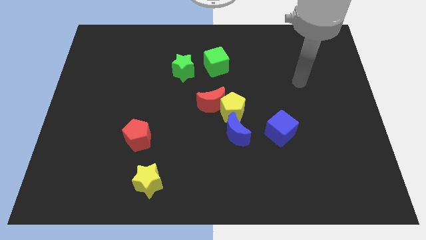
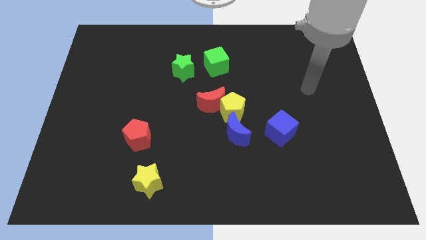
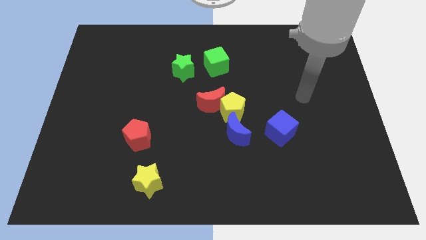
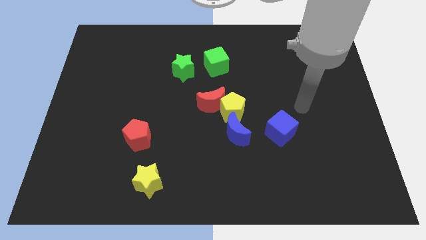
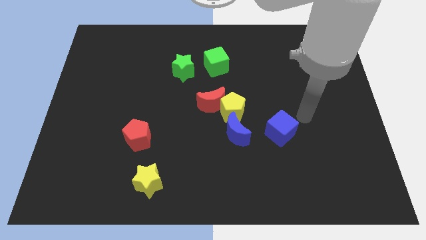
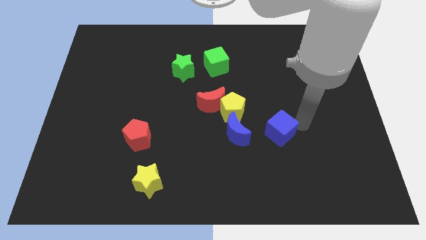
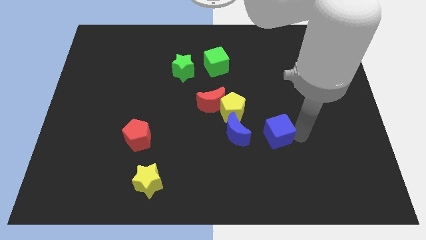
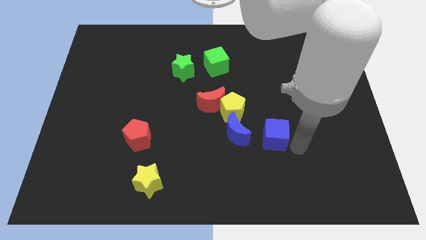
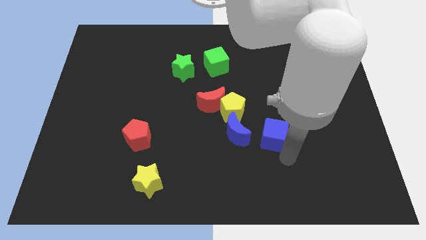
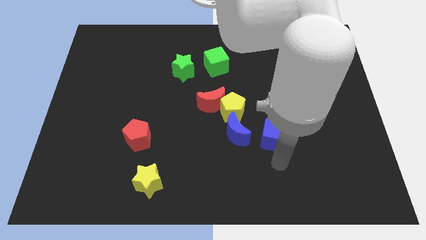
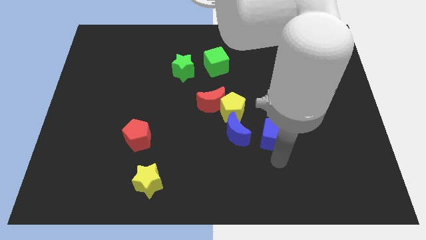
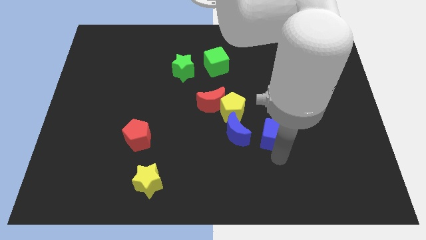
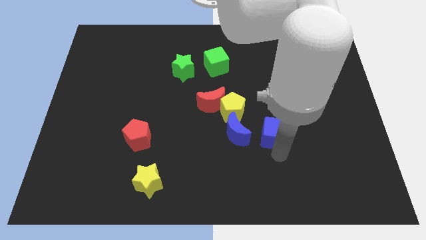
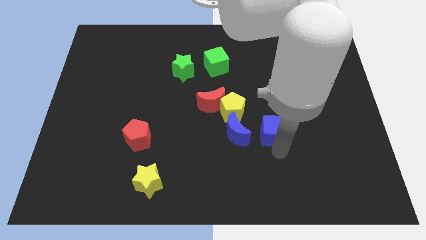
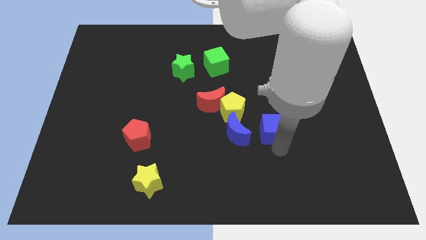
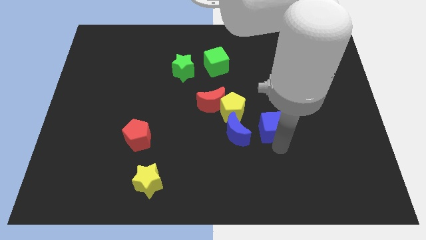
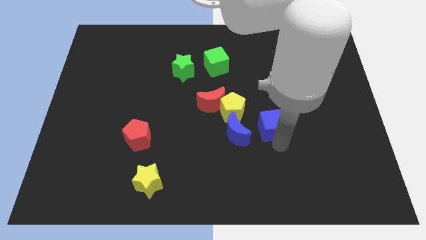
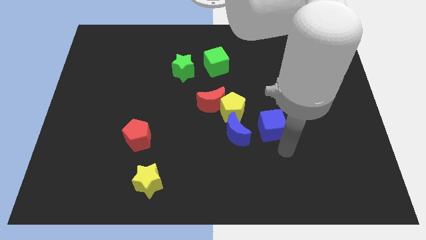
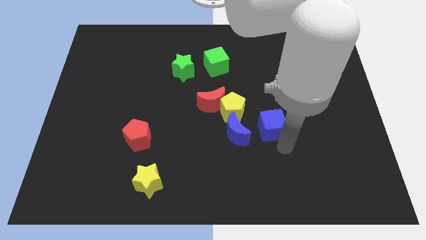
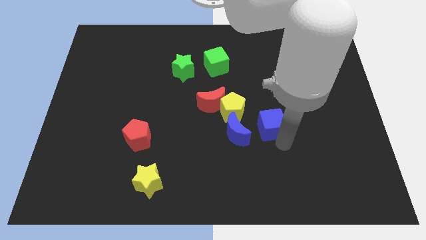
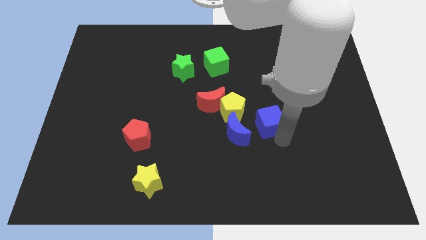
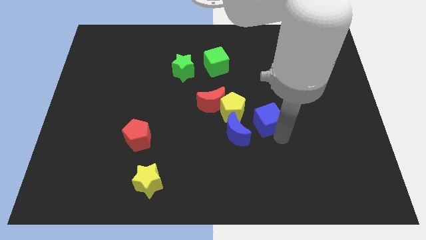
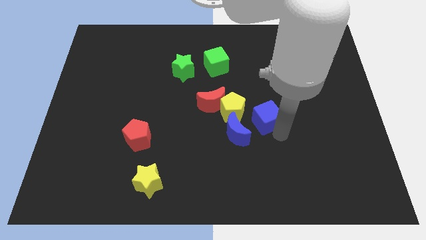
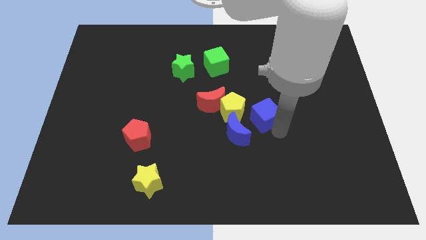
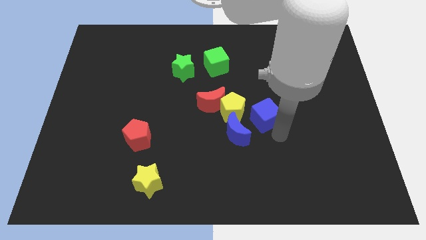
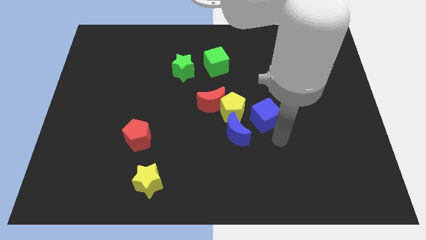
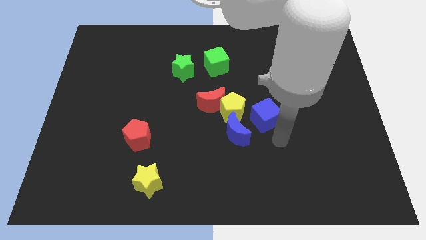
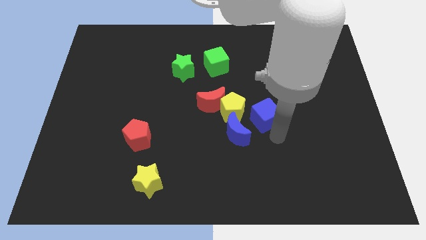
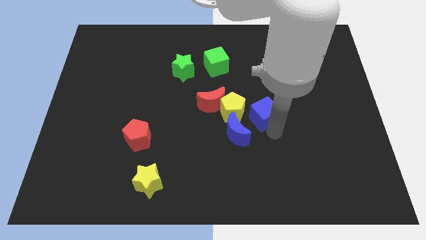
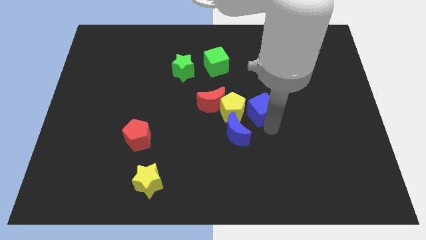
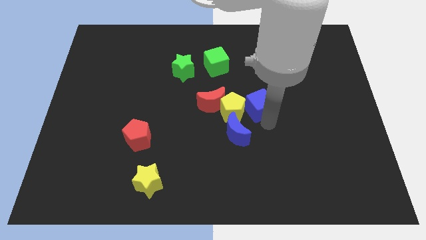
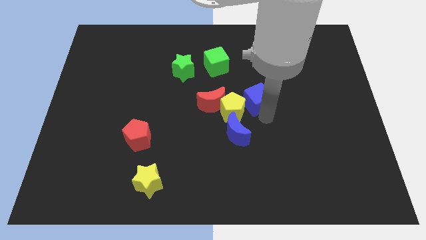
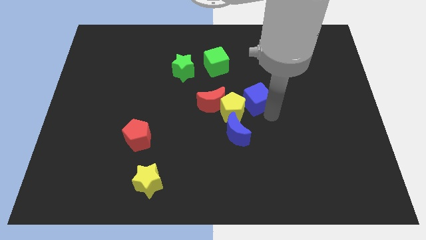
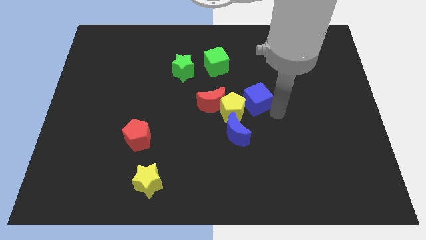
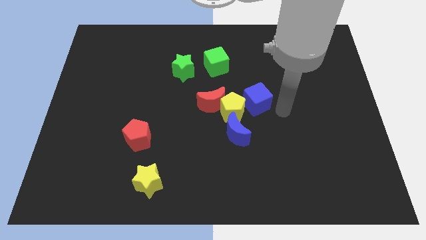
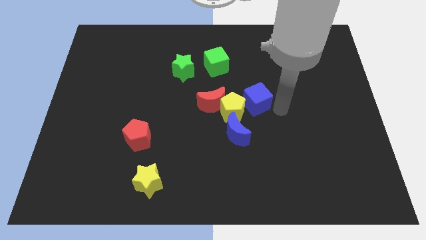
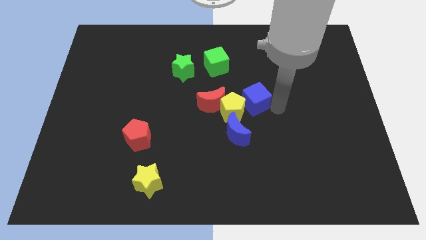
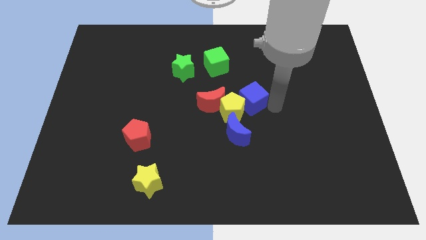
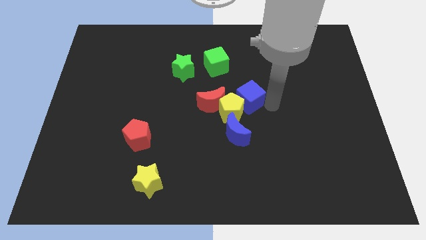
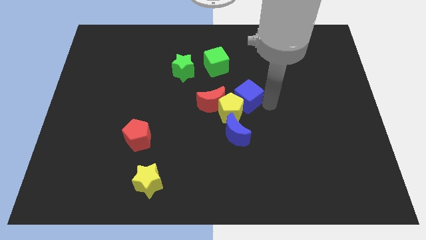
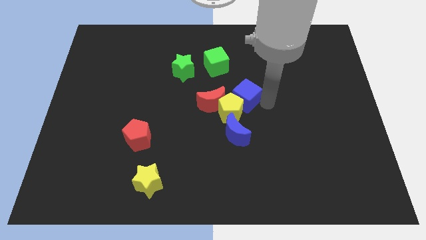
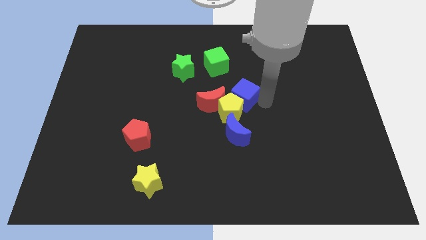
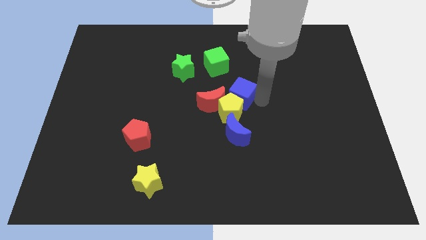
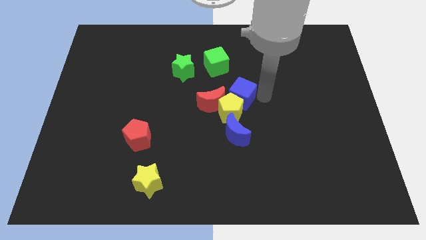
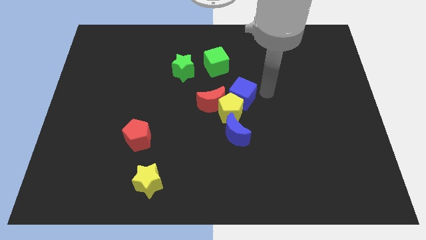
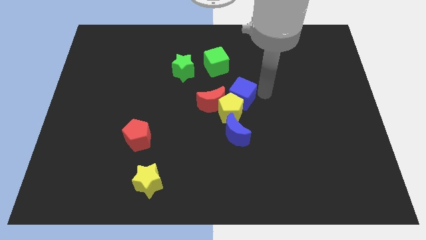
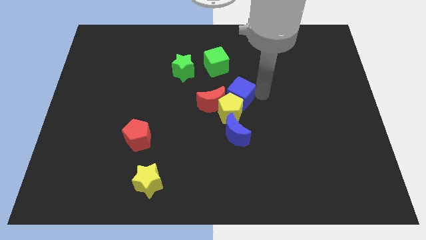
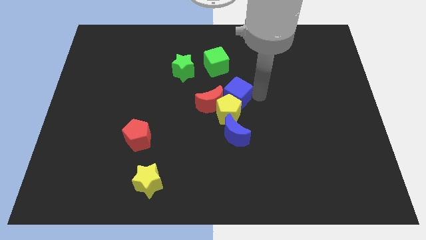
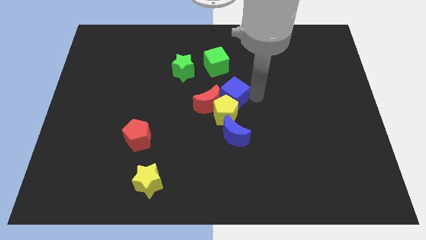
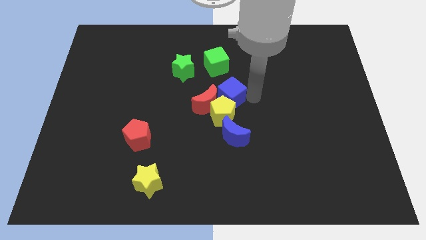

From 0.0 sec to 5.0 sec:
slide the blue cube close to the red moon

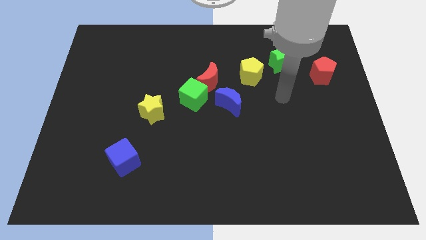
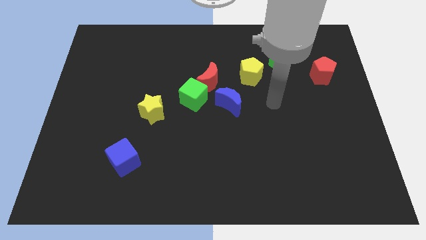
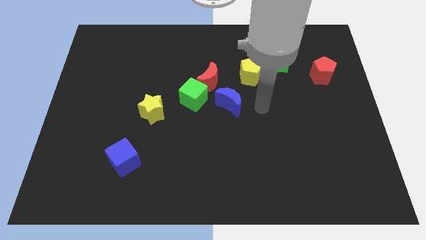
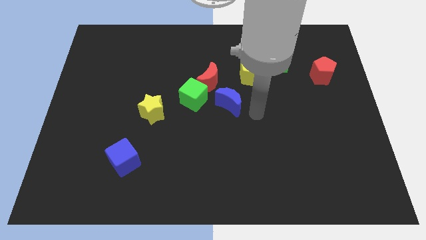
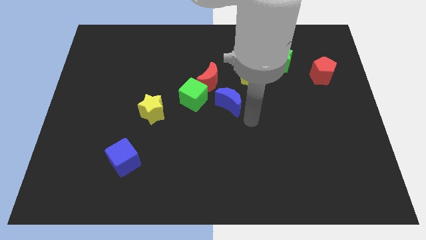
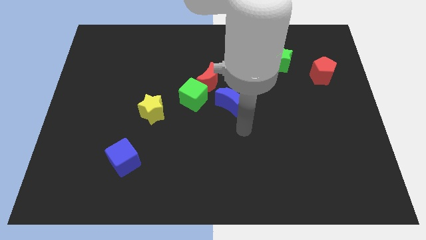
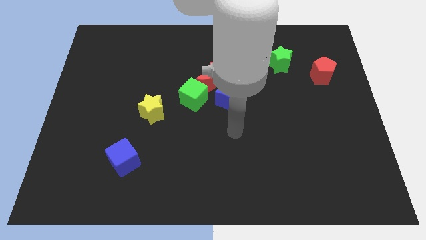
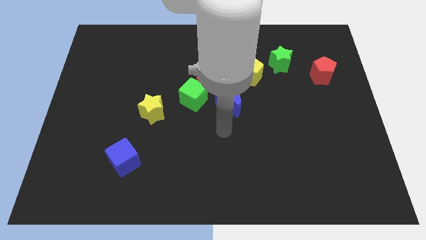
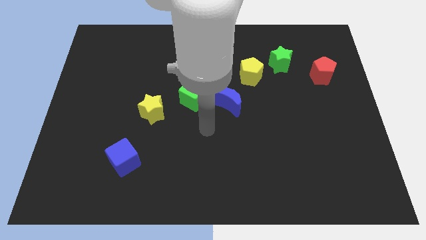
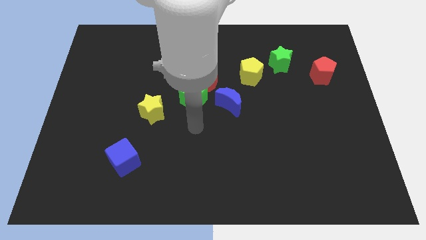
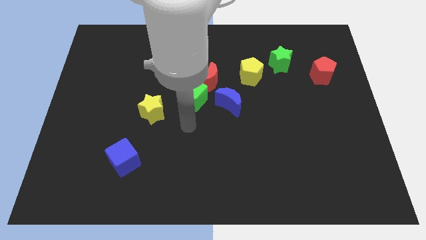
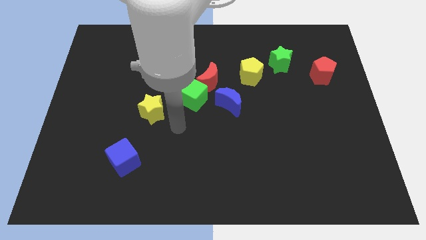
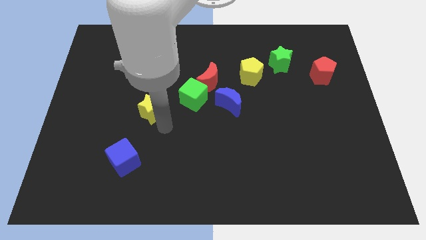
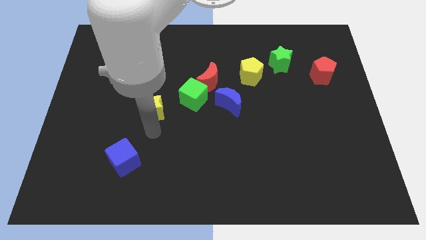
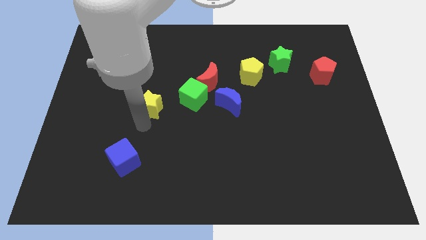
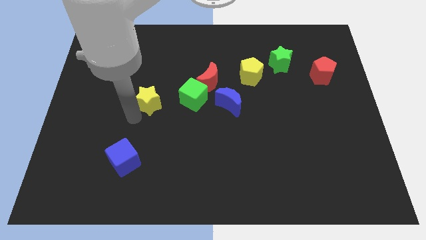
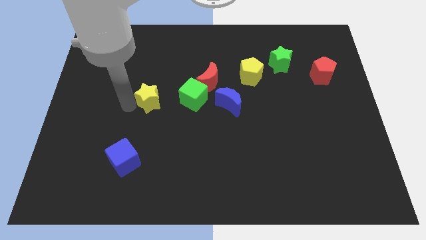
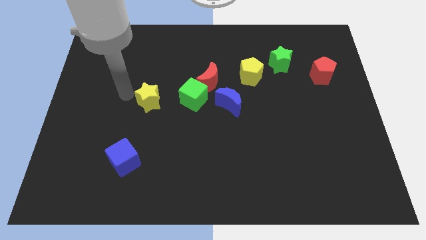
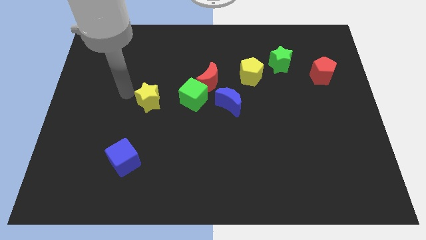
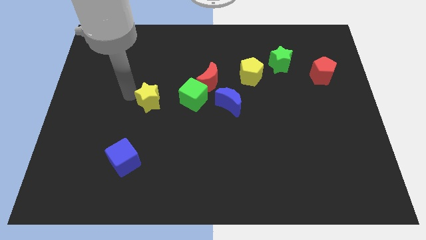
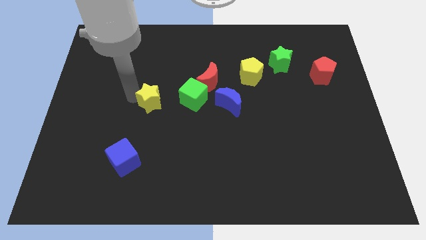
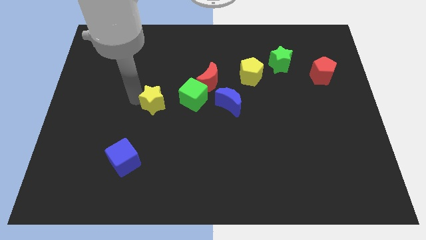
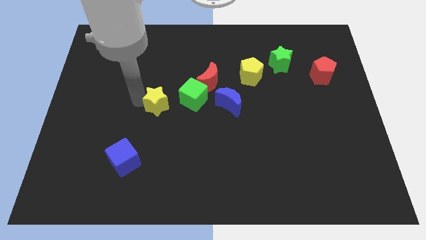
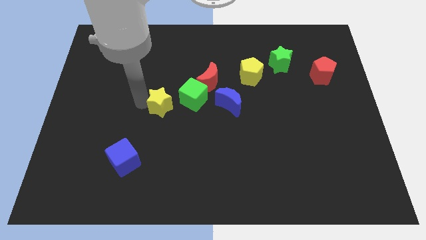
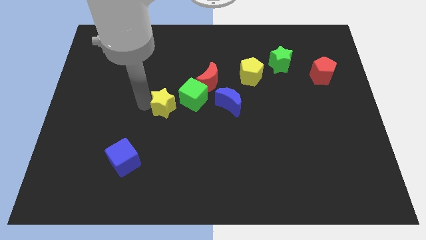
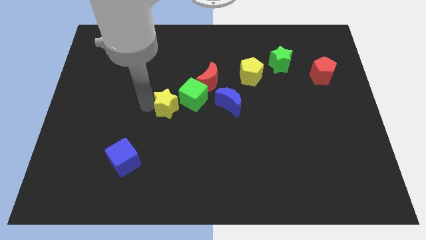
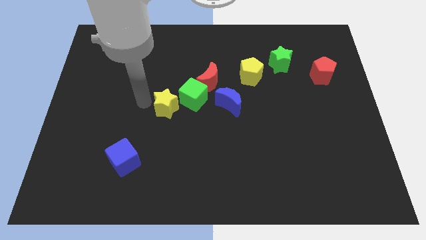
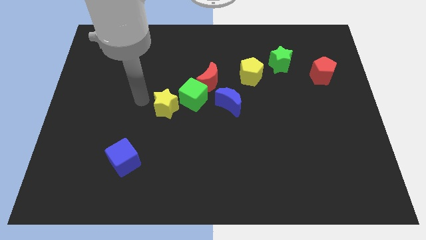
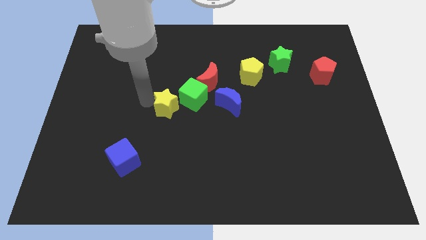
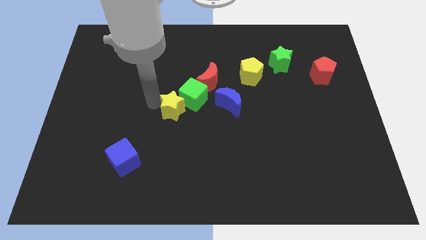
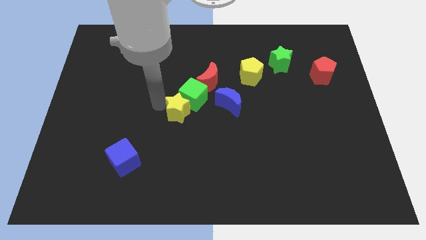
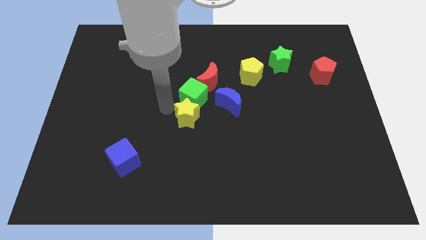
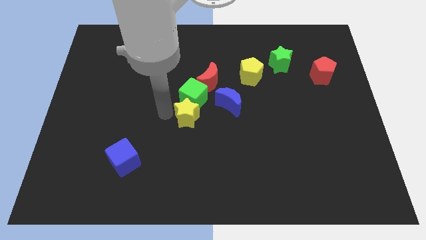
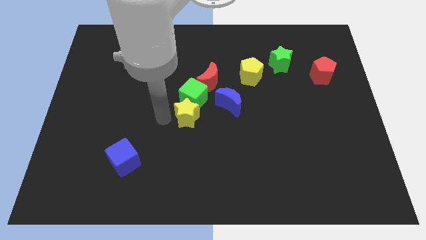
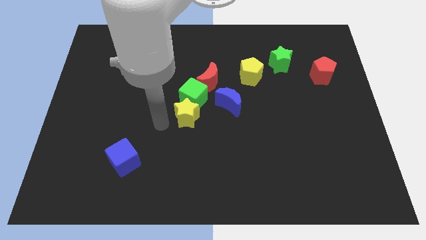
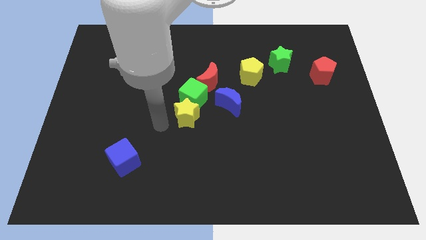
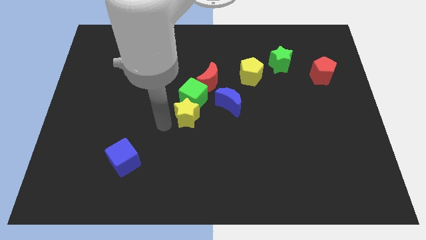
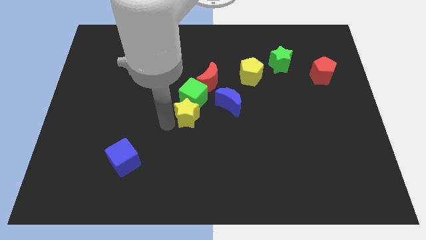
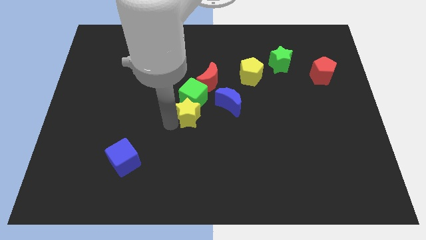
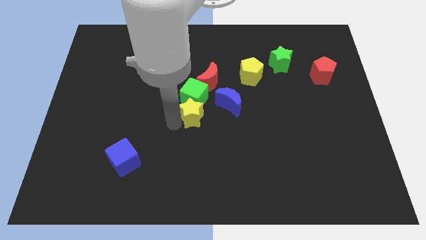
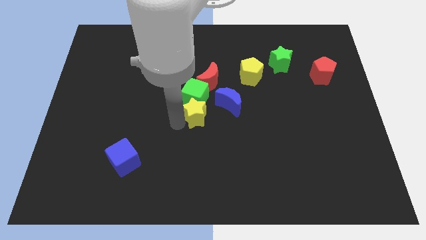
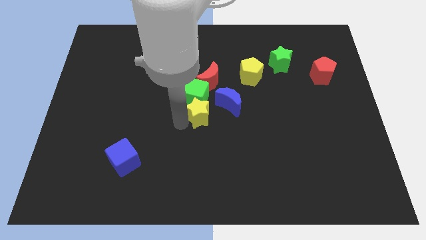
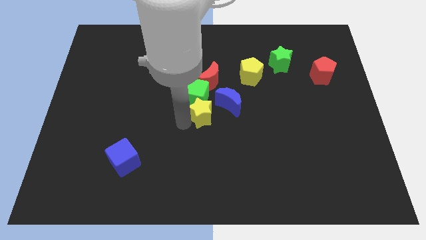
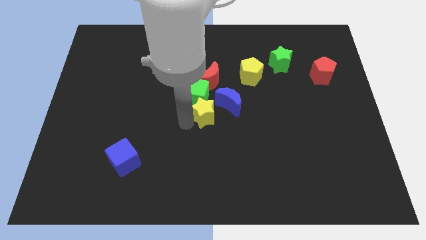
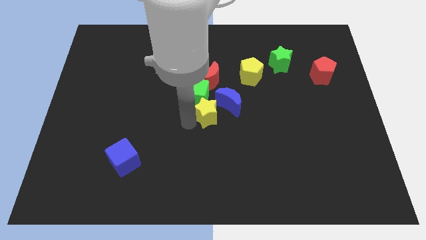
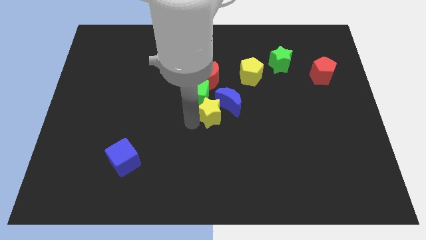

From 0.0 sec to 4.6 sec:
slide the yellow star towards the blue moon
